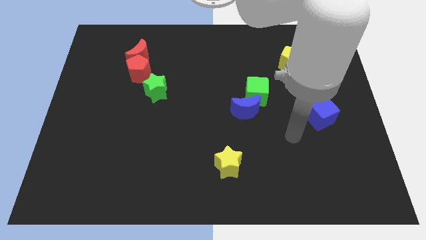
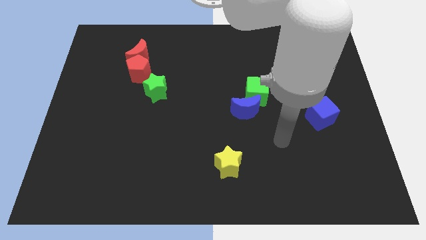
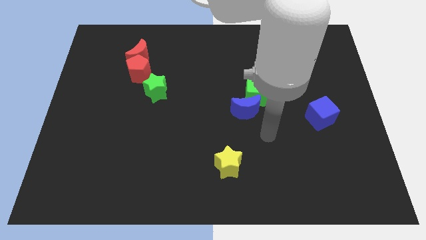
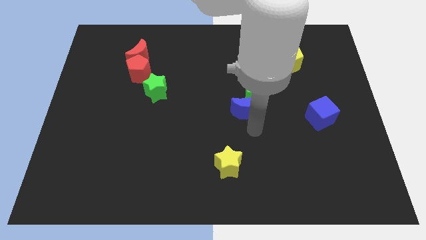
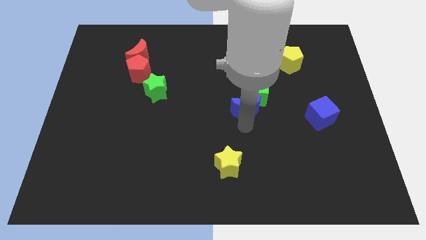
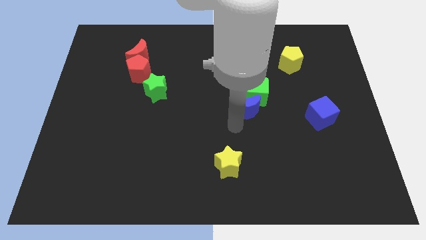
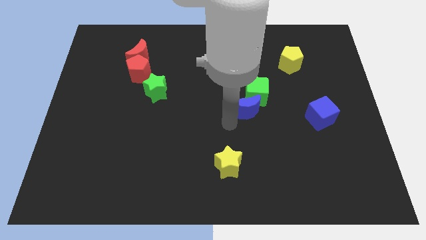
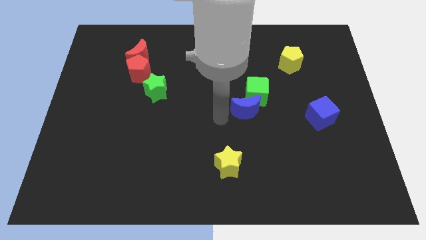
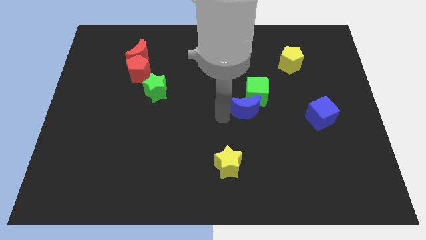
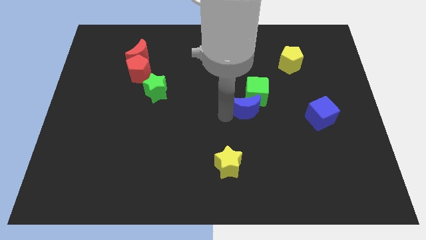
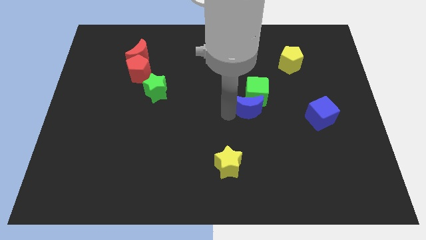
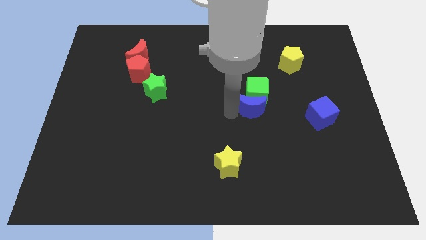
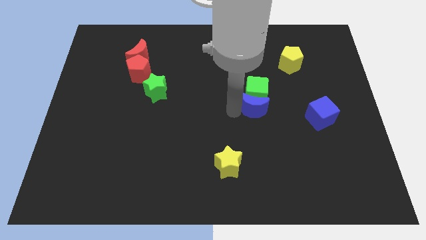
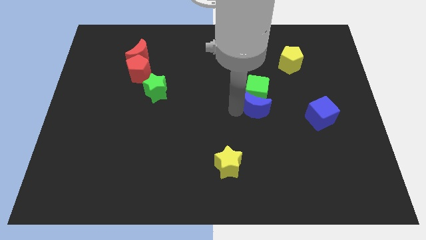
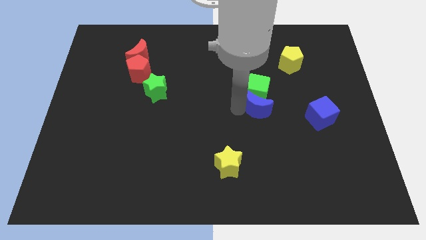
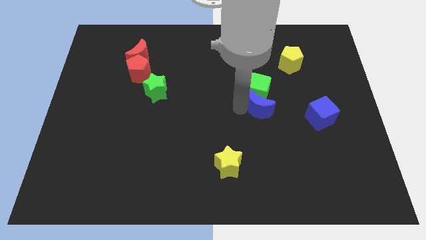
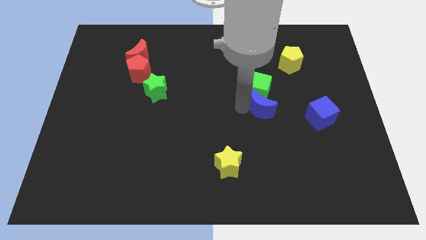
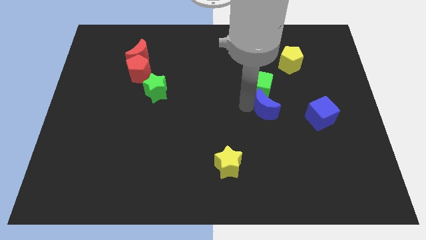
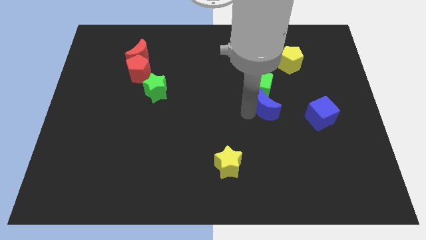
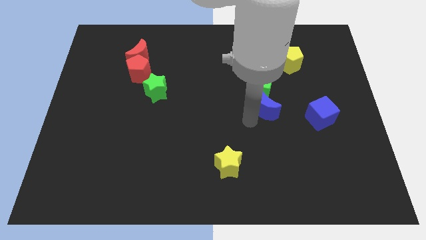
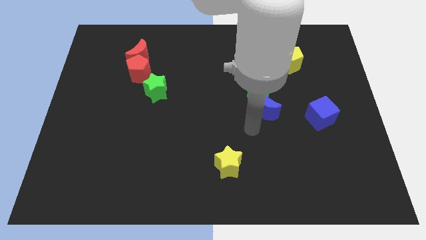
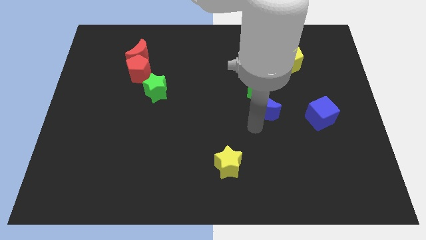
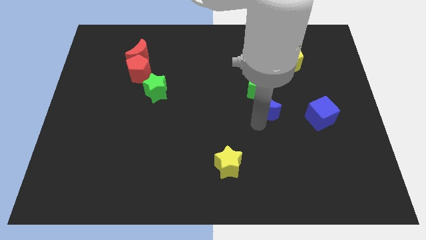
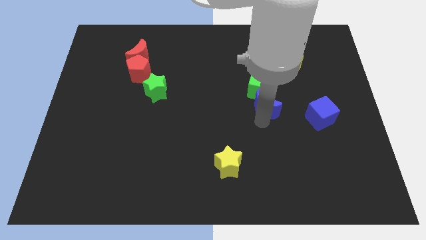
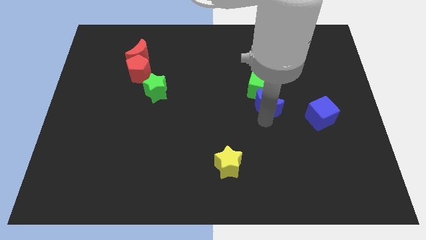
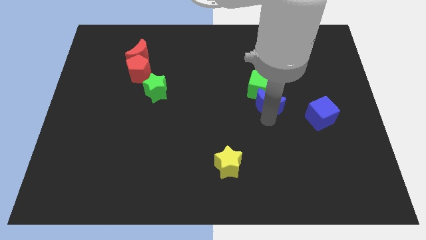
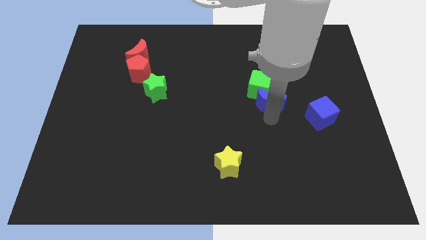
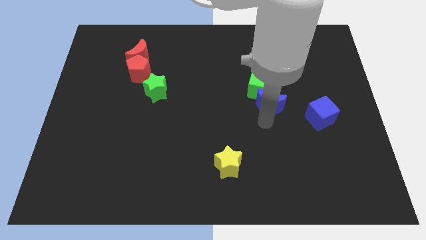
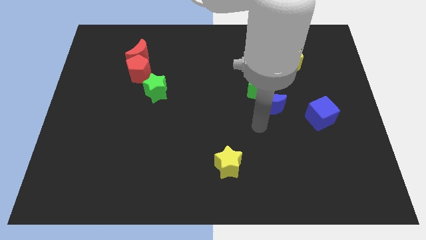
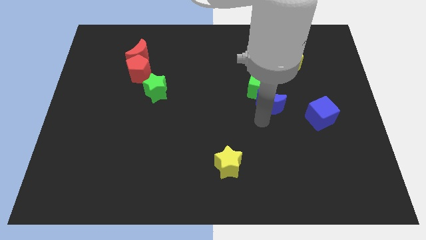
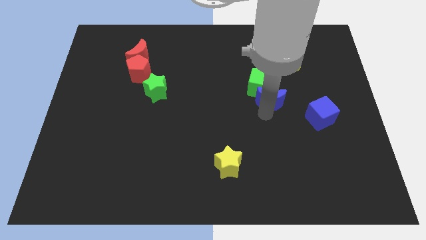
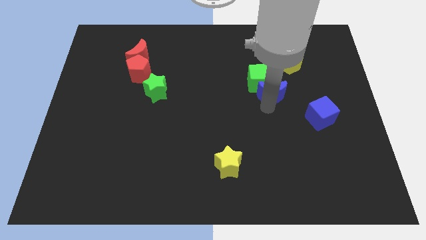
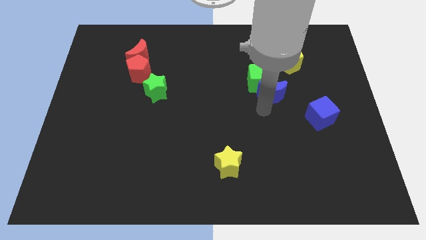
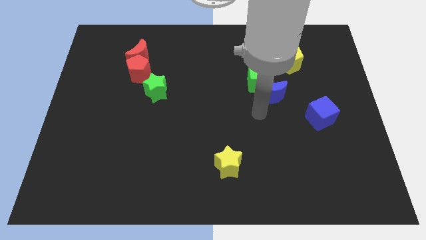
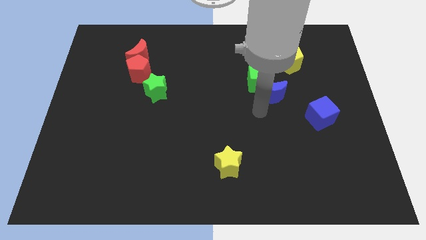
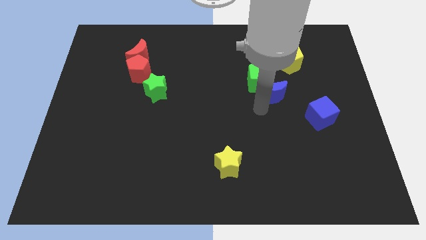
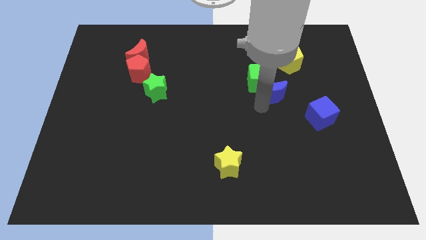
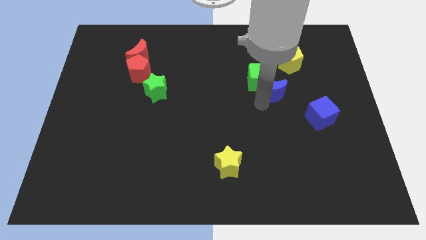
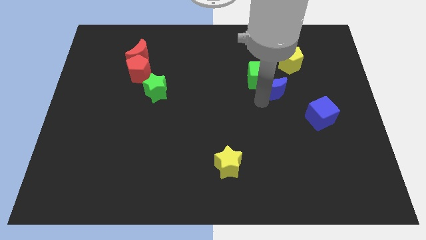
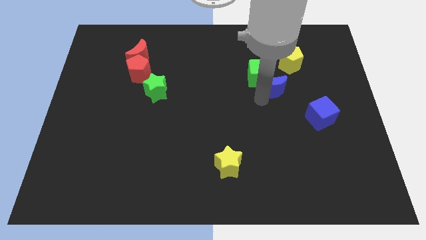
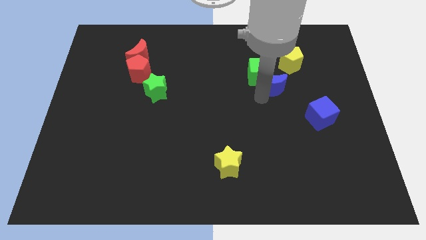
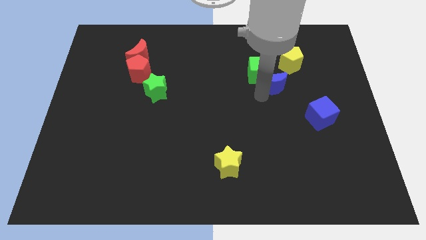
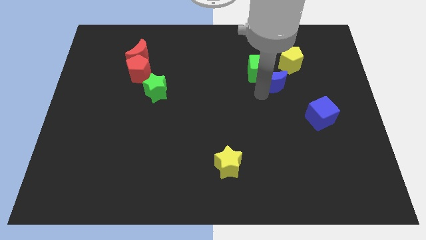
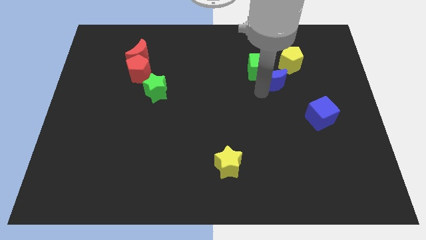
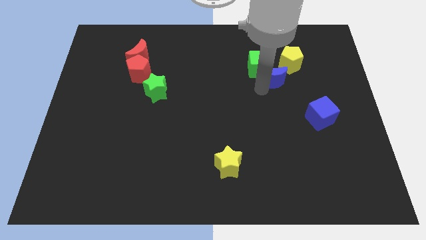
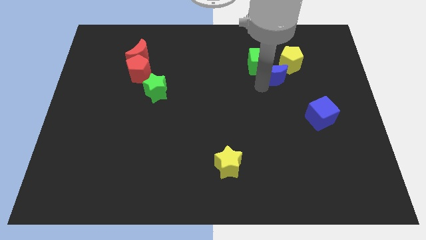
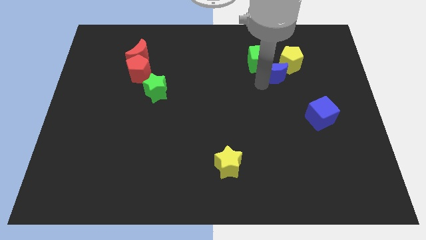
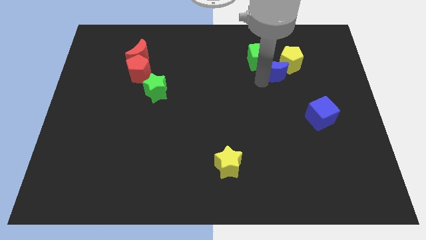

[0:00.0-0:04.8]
put the blue moon close to the yellow pentagon

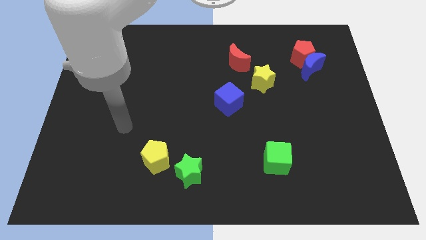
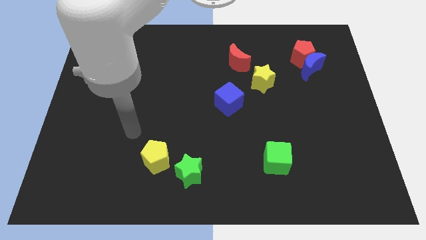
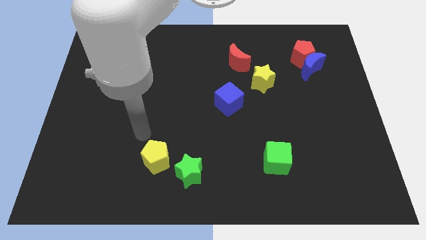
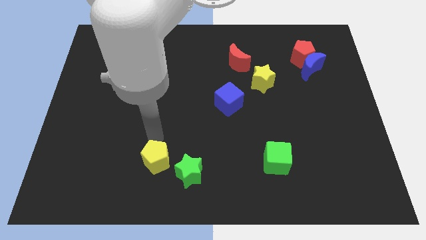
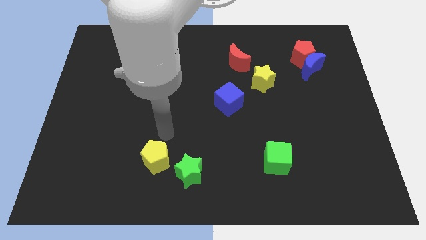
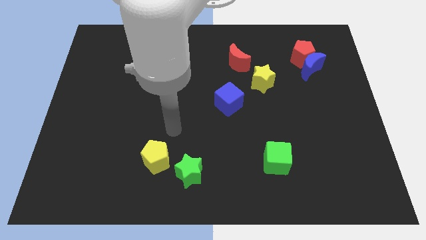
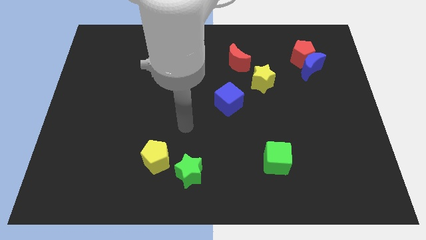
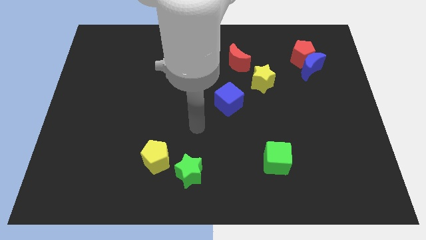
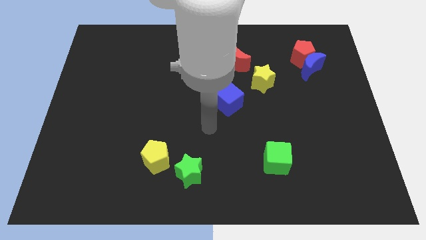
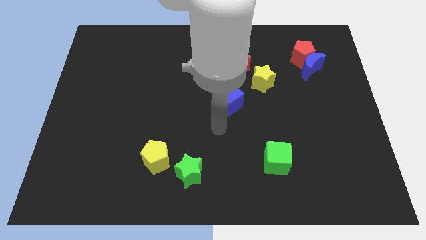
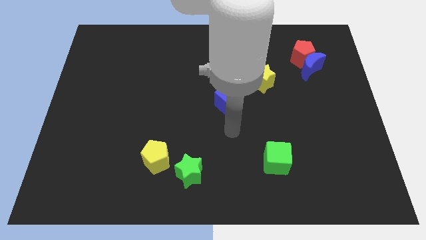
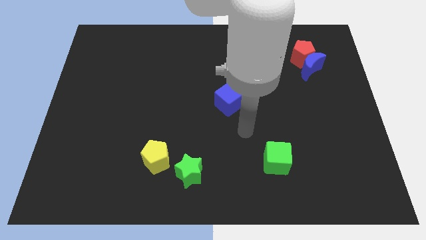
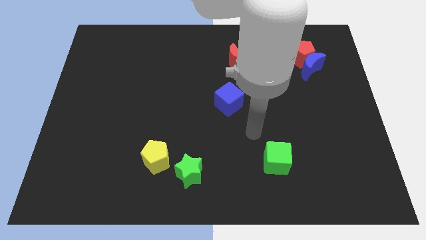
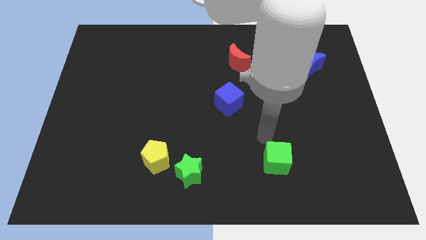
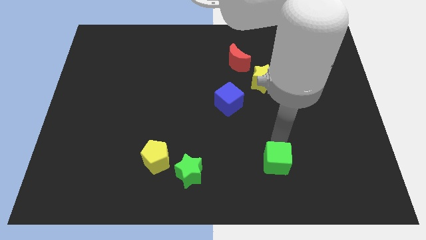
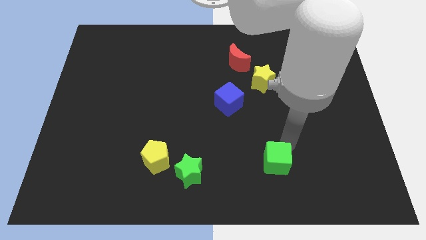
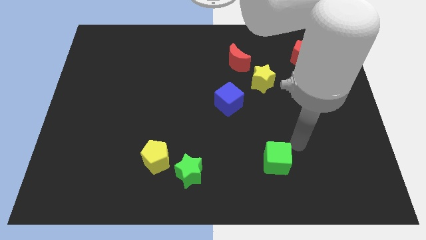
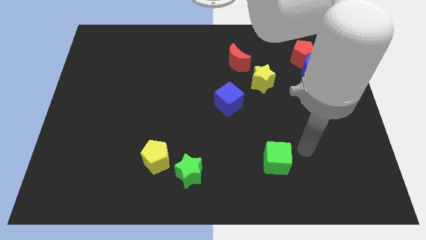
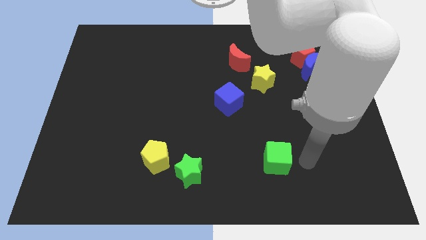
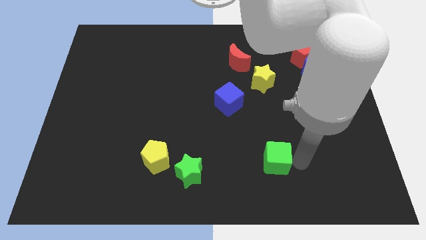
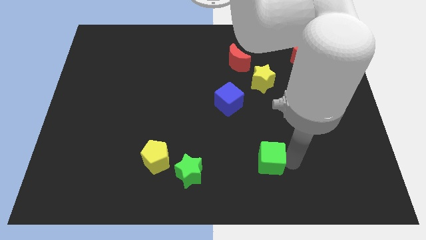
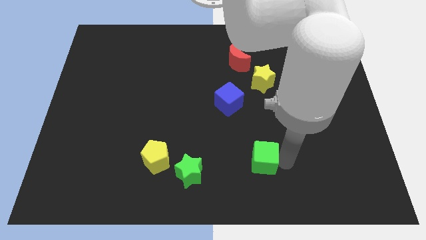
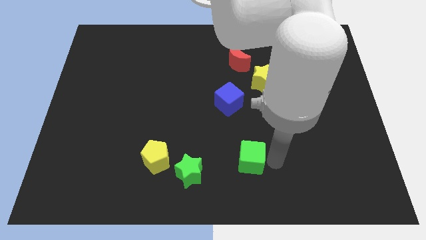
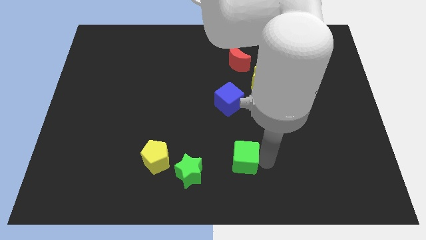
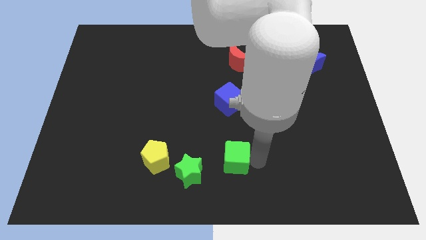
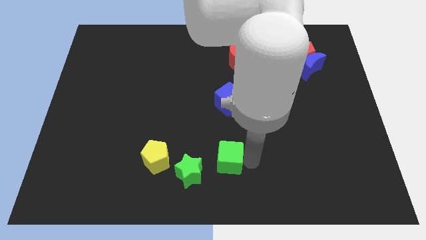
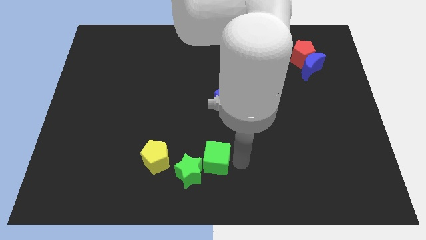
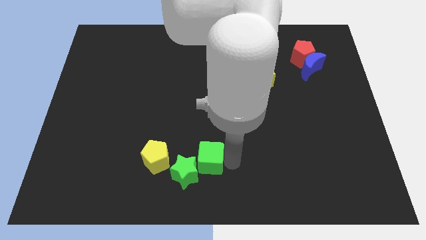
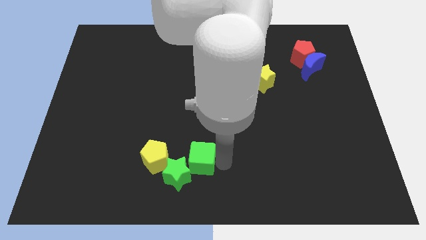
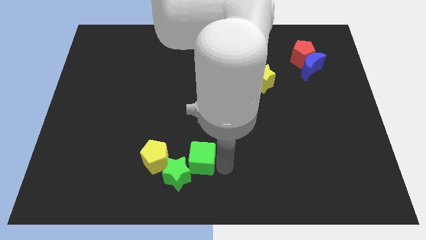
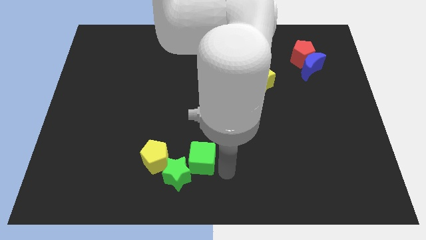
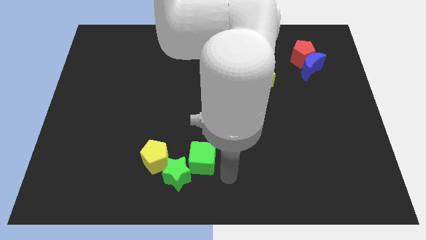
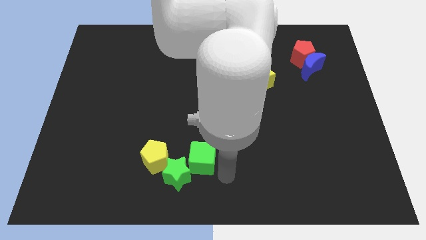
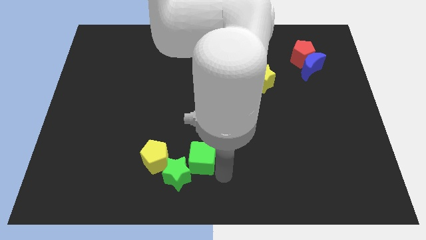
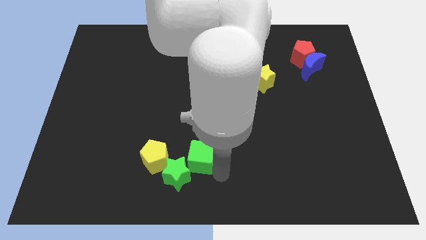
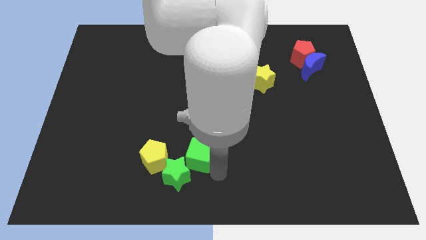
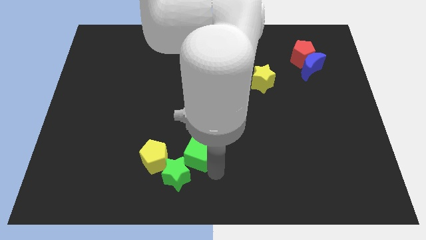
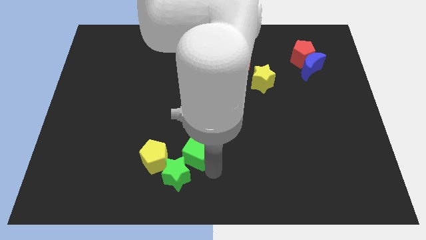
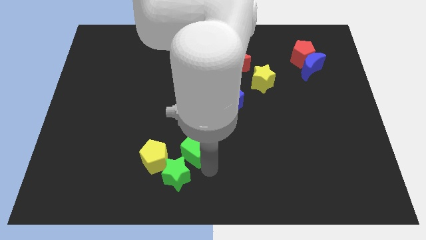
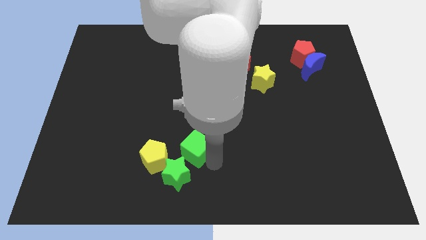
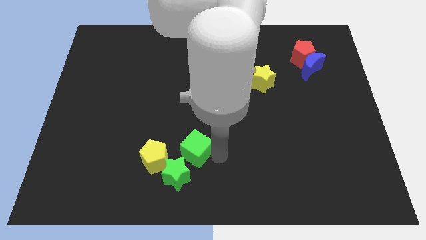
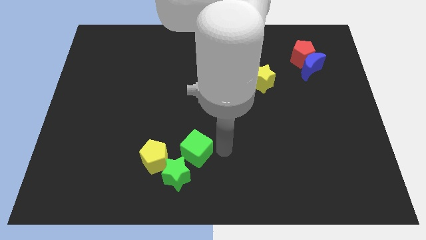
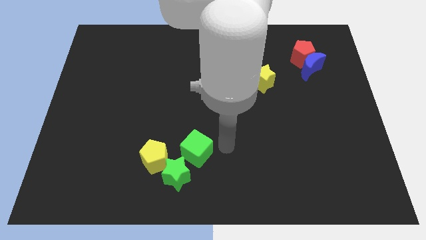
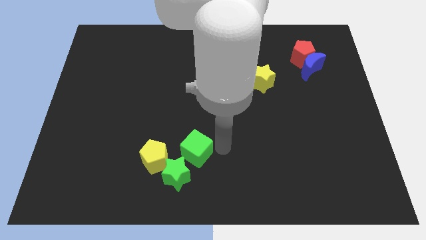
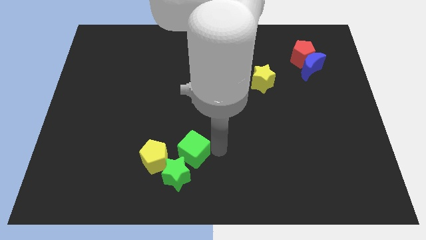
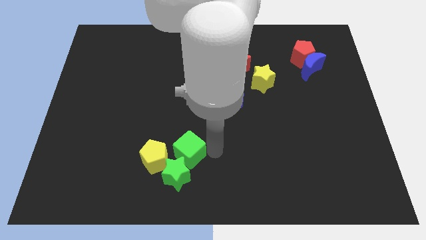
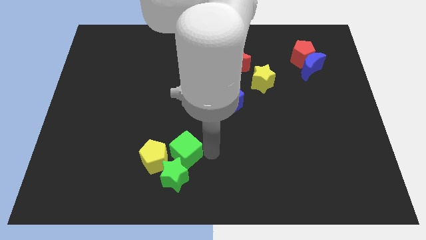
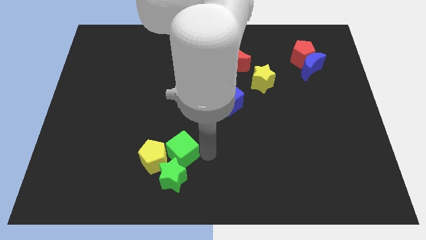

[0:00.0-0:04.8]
push the green cube close to the yellow pentagon
